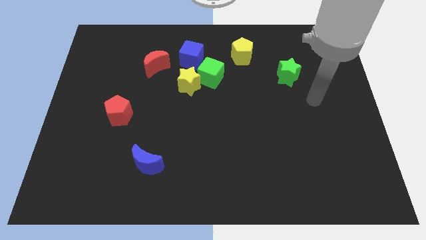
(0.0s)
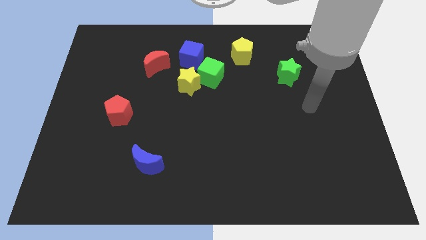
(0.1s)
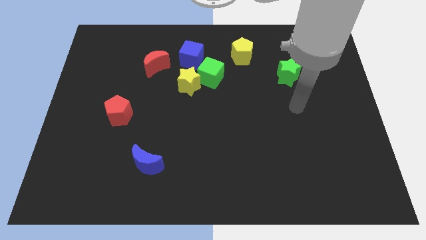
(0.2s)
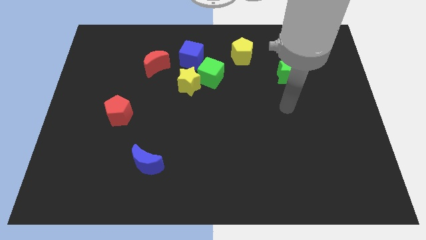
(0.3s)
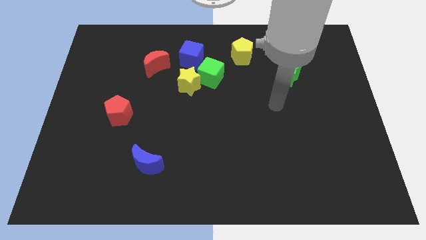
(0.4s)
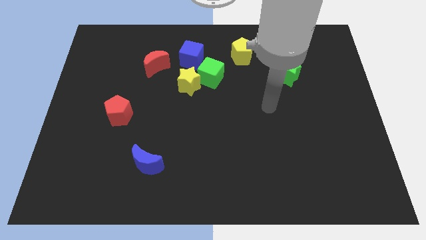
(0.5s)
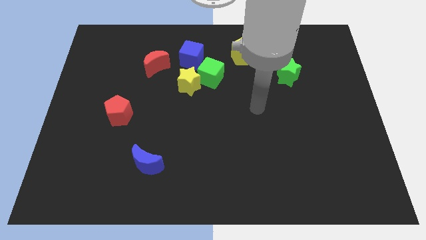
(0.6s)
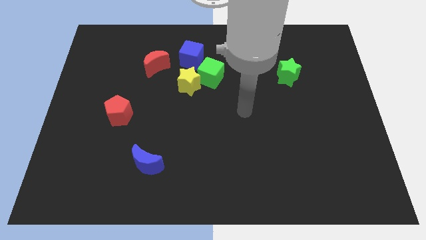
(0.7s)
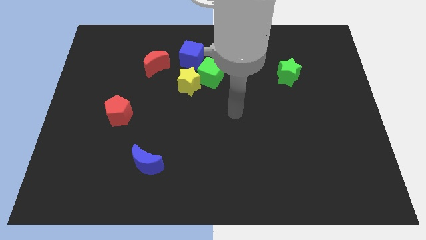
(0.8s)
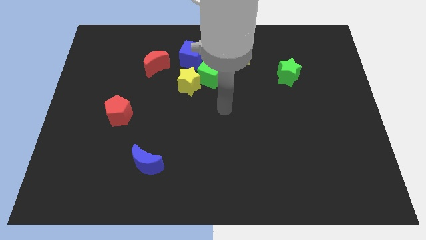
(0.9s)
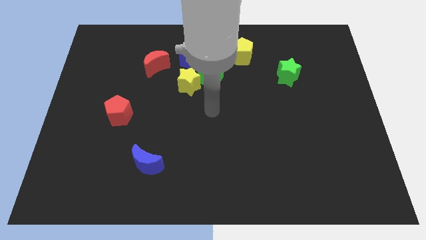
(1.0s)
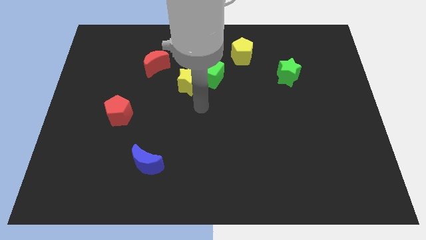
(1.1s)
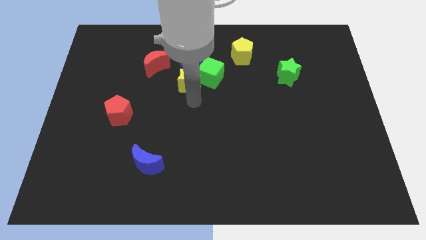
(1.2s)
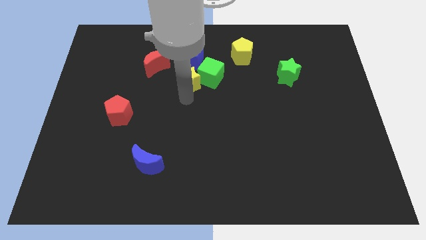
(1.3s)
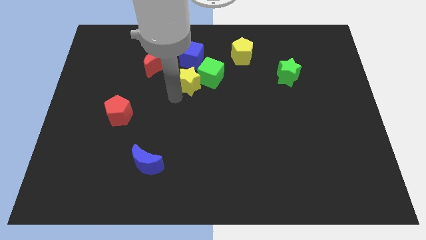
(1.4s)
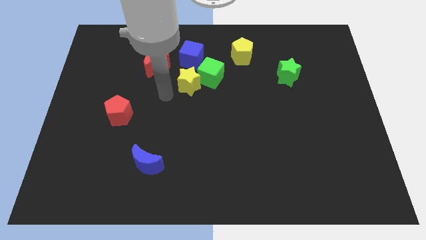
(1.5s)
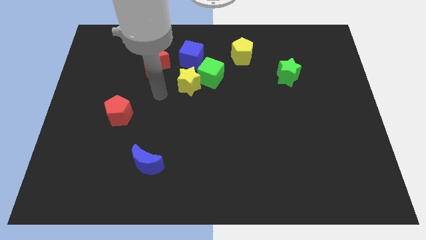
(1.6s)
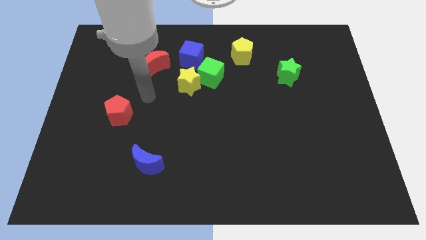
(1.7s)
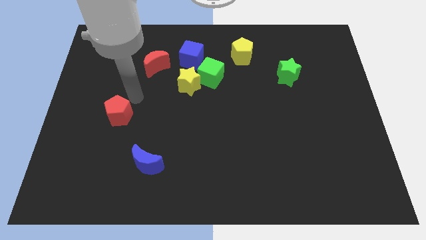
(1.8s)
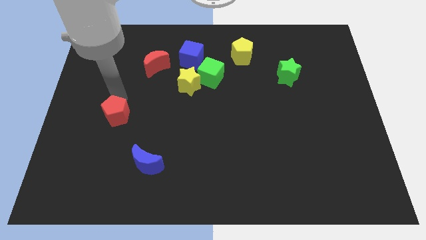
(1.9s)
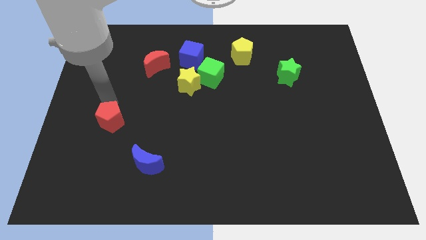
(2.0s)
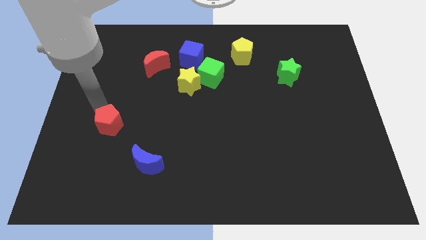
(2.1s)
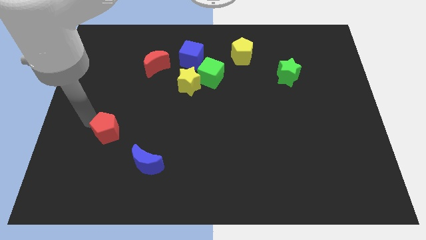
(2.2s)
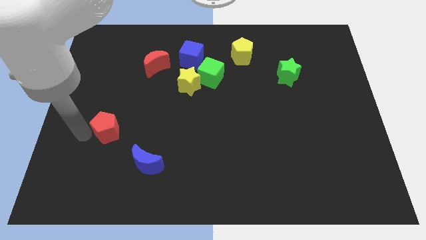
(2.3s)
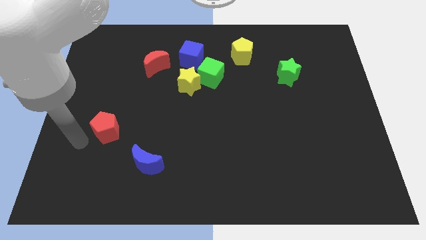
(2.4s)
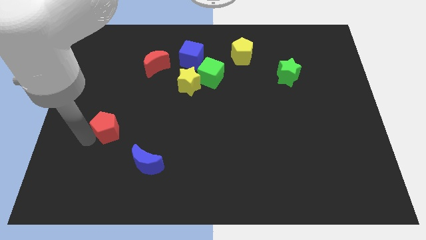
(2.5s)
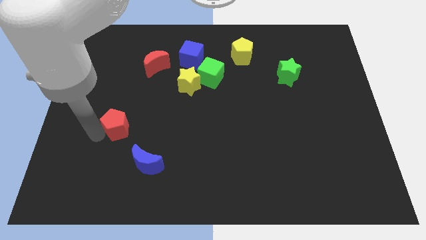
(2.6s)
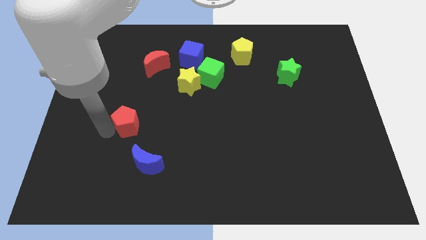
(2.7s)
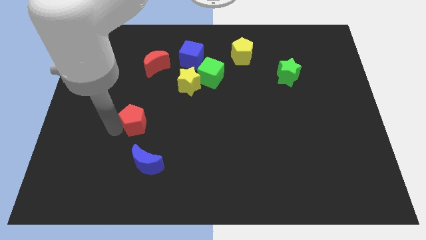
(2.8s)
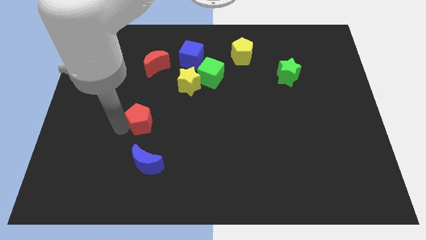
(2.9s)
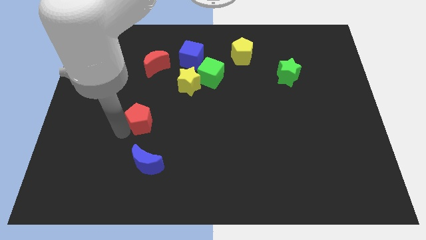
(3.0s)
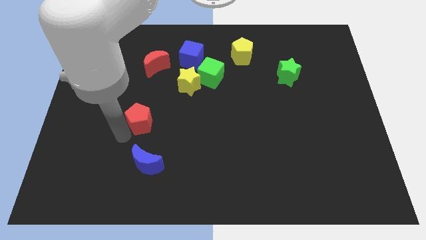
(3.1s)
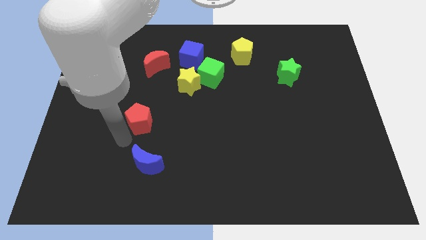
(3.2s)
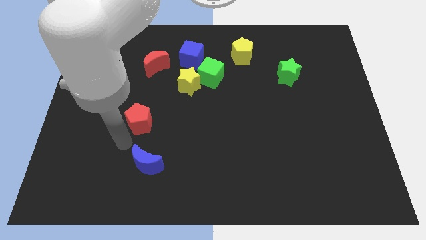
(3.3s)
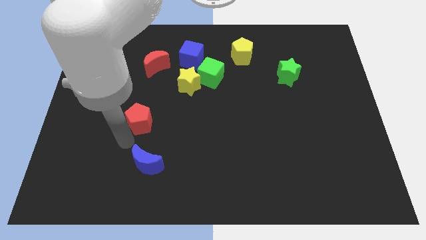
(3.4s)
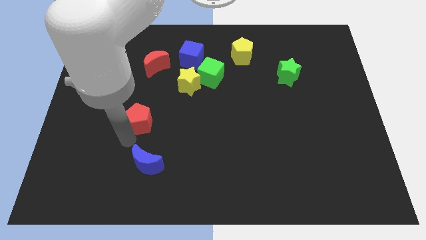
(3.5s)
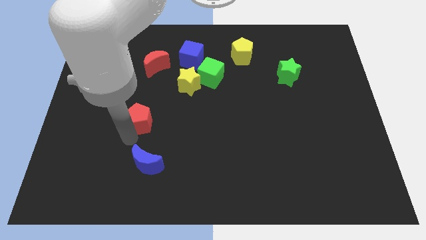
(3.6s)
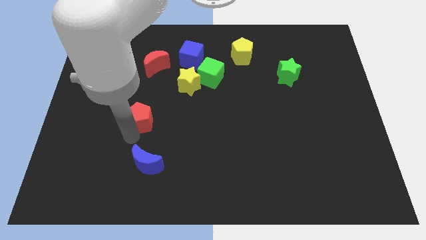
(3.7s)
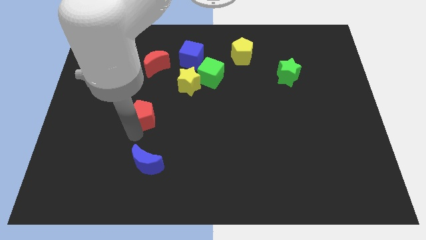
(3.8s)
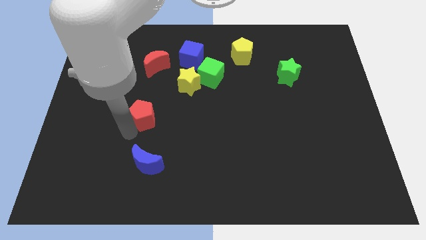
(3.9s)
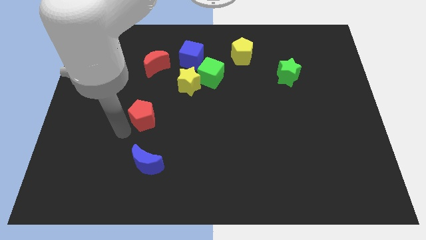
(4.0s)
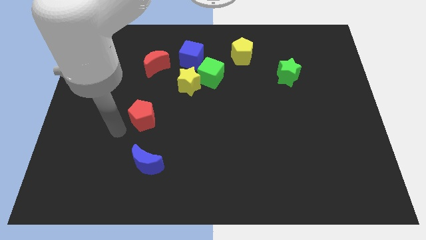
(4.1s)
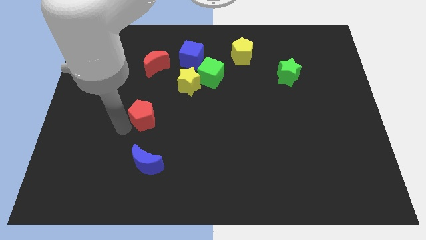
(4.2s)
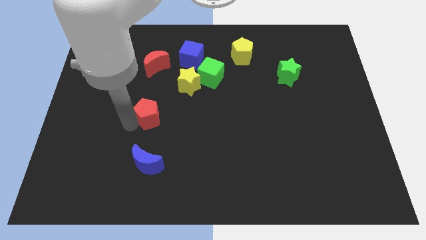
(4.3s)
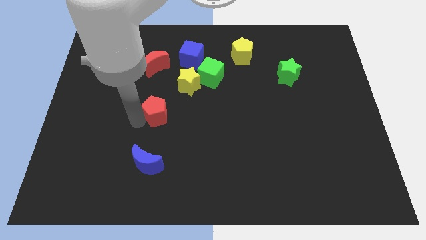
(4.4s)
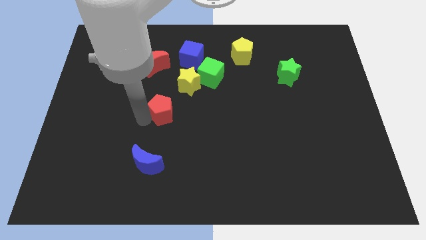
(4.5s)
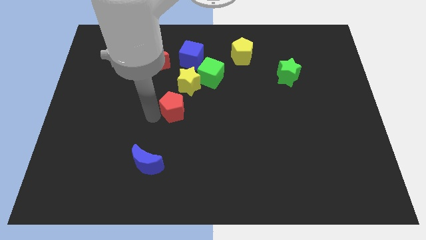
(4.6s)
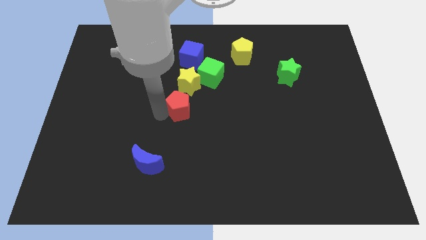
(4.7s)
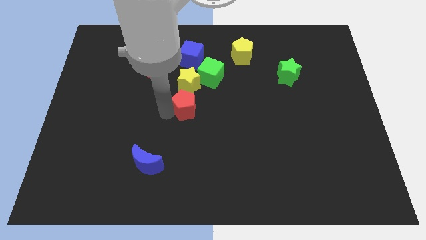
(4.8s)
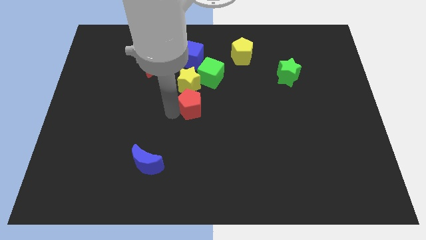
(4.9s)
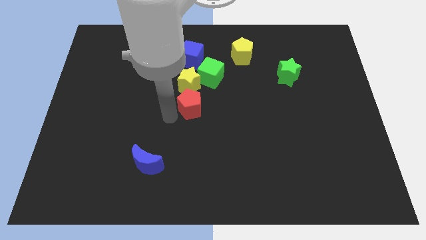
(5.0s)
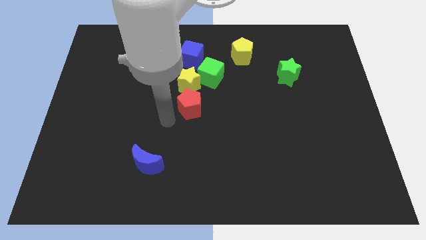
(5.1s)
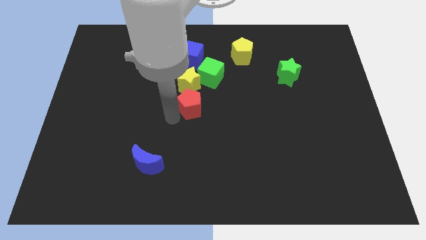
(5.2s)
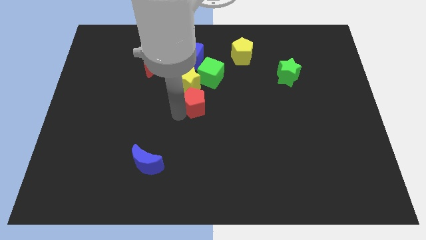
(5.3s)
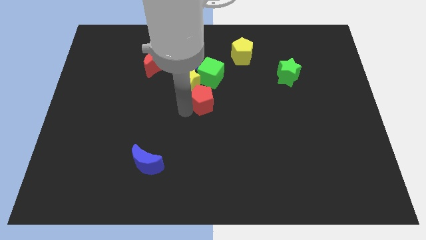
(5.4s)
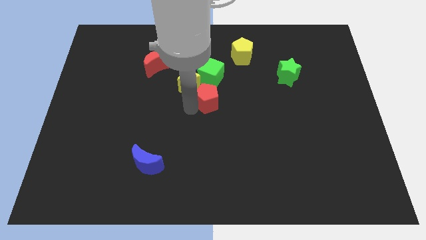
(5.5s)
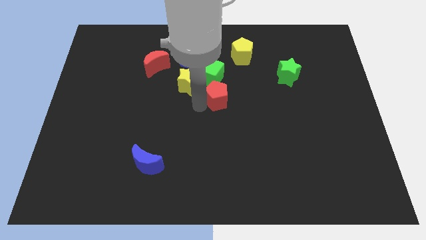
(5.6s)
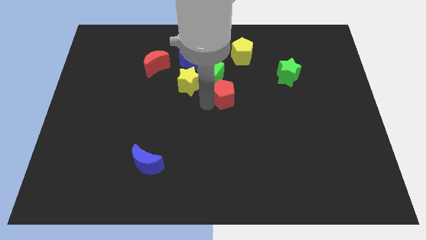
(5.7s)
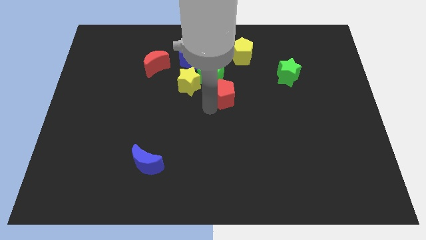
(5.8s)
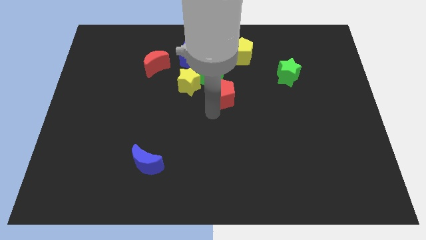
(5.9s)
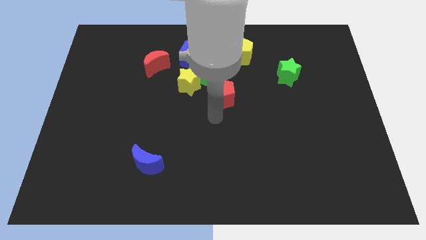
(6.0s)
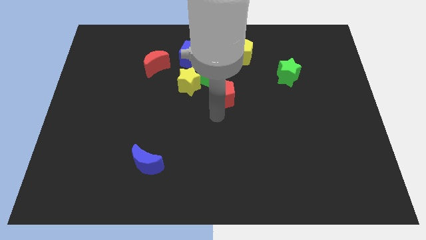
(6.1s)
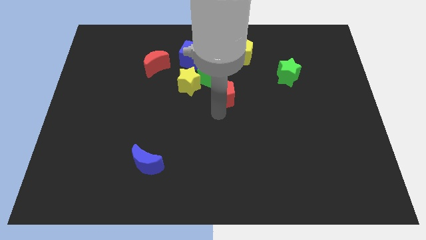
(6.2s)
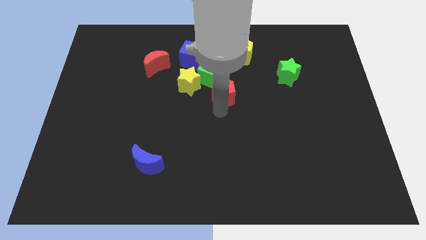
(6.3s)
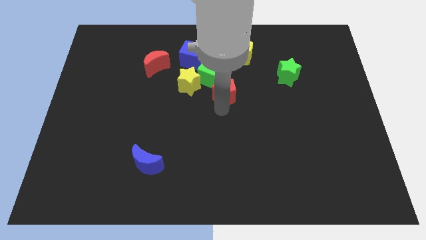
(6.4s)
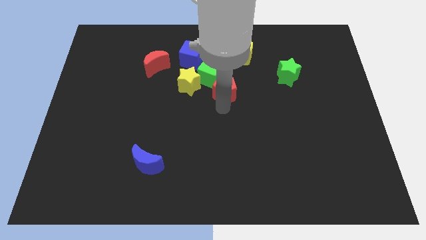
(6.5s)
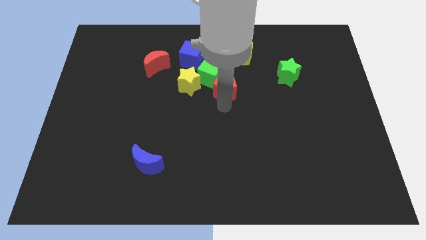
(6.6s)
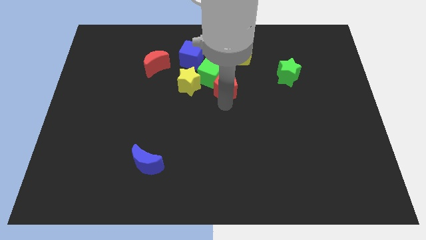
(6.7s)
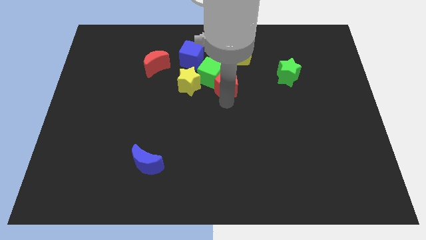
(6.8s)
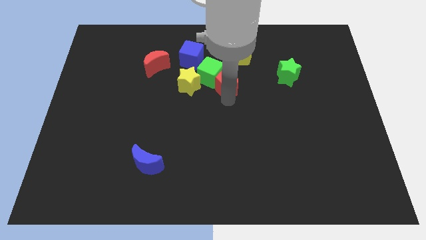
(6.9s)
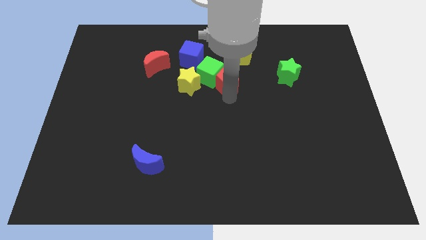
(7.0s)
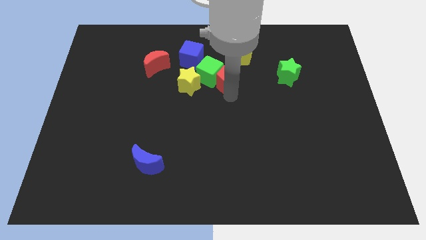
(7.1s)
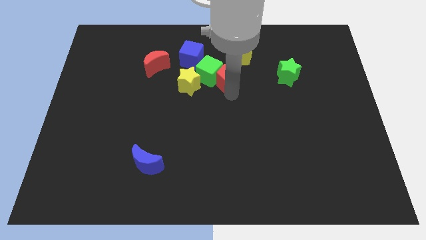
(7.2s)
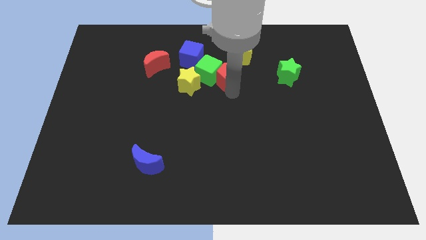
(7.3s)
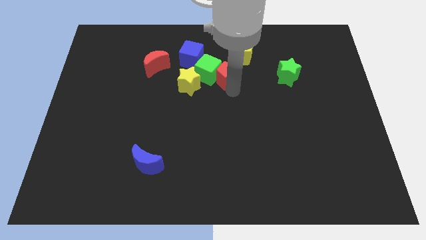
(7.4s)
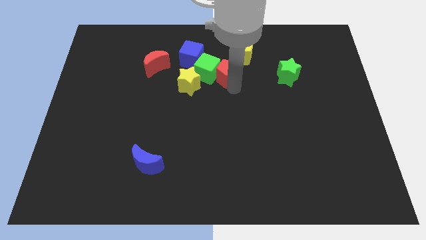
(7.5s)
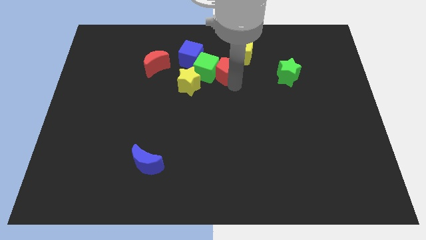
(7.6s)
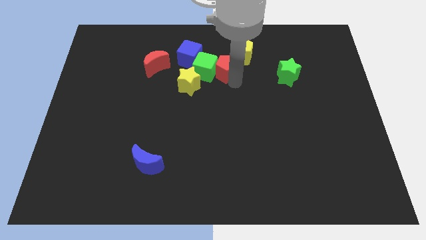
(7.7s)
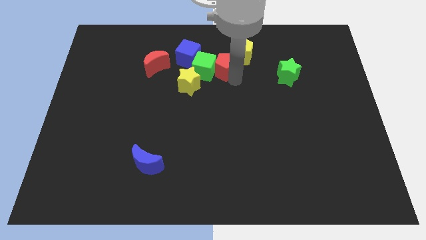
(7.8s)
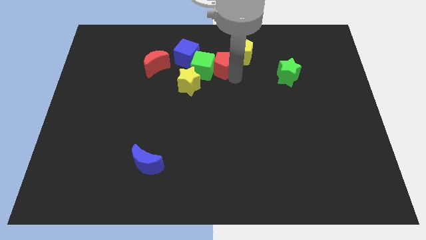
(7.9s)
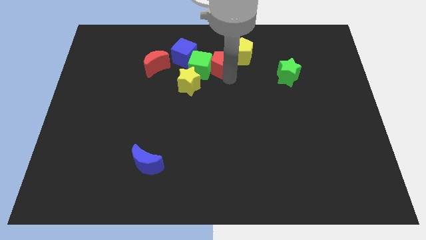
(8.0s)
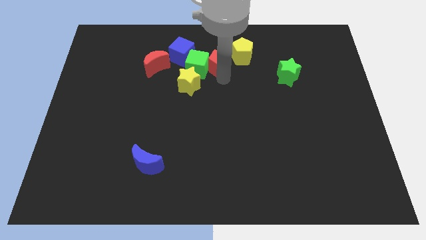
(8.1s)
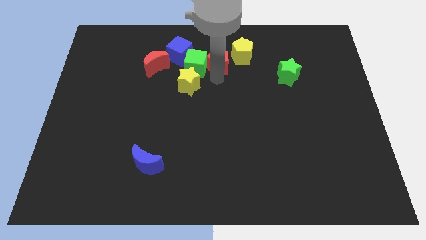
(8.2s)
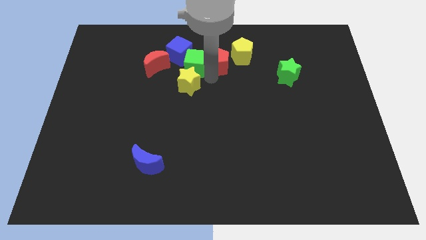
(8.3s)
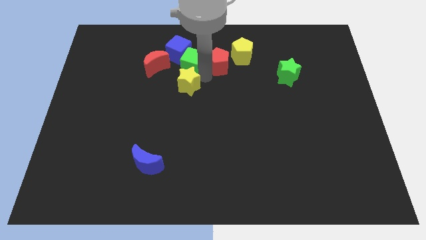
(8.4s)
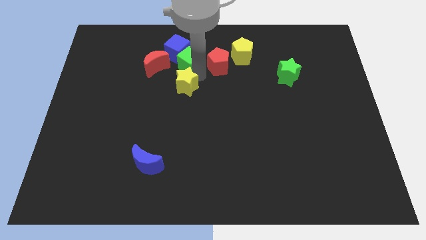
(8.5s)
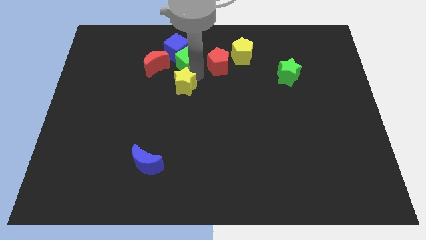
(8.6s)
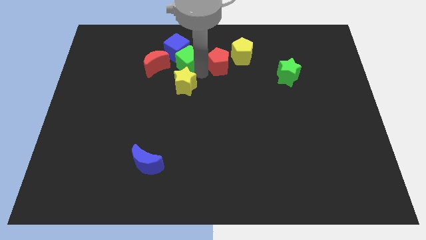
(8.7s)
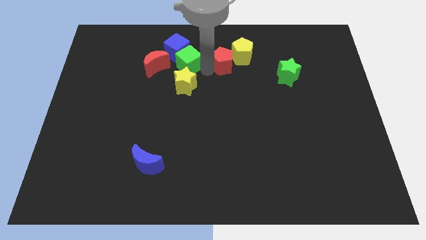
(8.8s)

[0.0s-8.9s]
move the red pentagon next to the yellow pentagon
